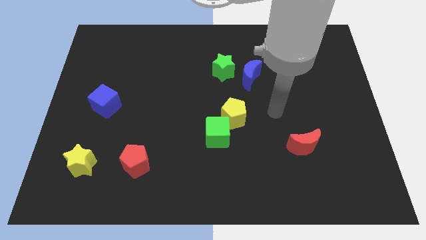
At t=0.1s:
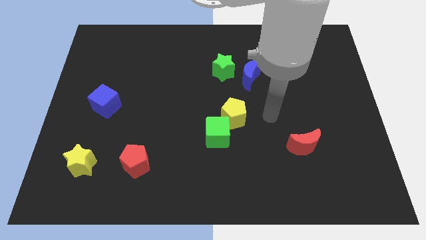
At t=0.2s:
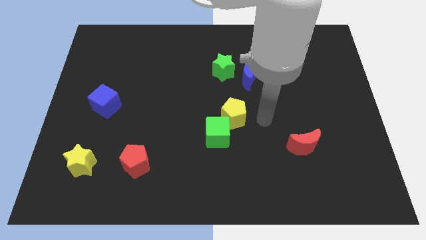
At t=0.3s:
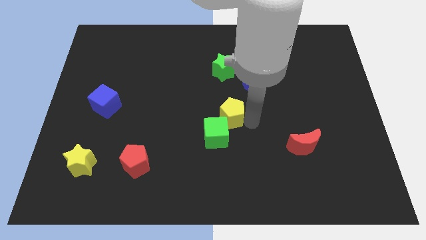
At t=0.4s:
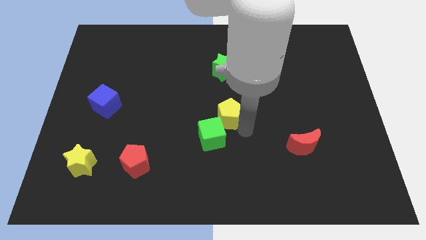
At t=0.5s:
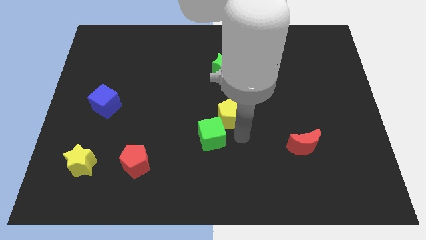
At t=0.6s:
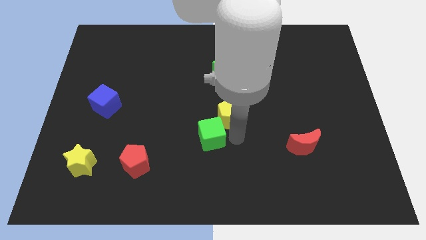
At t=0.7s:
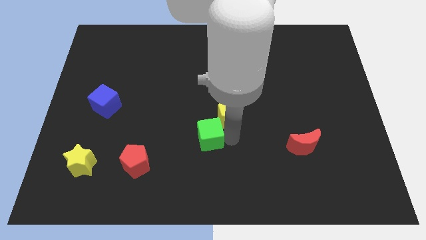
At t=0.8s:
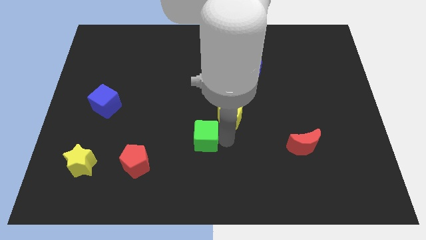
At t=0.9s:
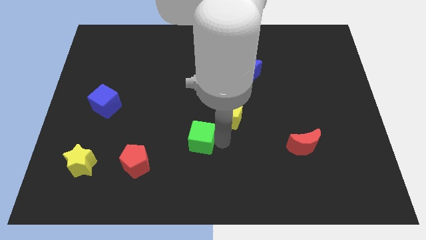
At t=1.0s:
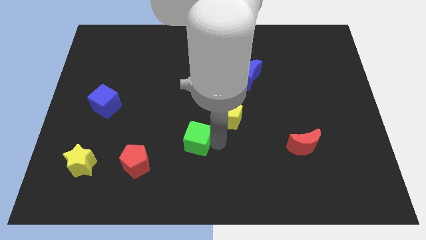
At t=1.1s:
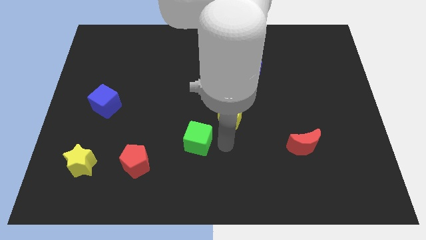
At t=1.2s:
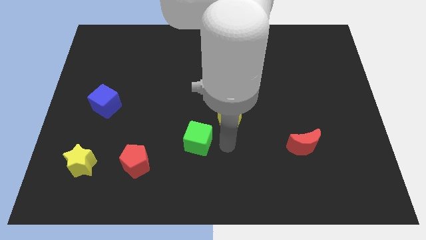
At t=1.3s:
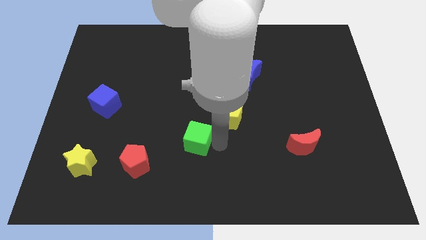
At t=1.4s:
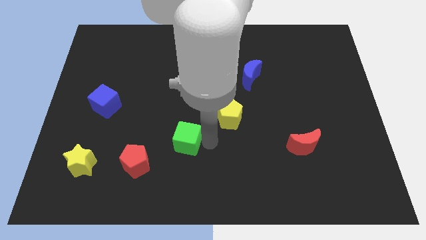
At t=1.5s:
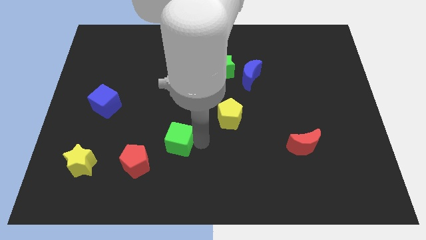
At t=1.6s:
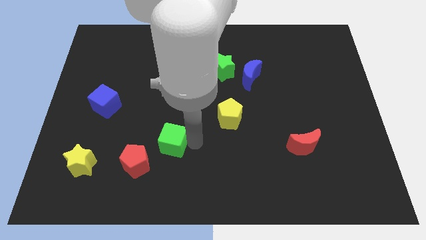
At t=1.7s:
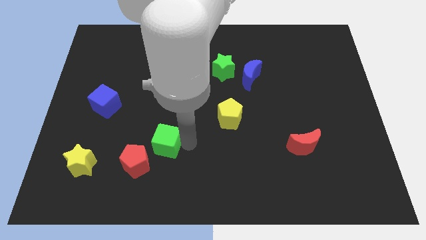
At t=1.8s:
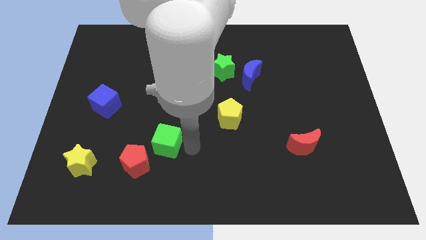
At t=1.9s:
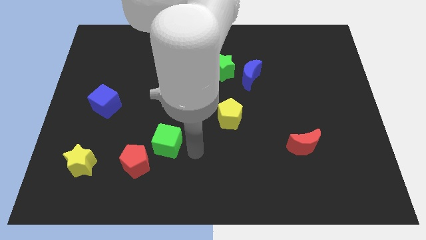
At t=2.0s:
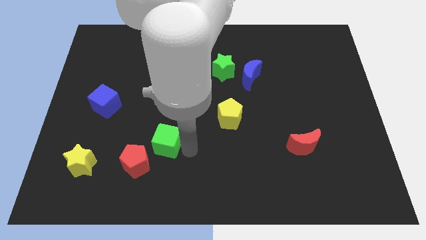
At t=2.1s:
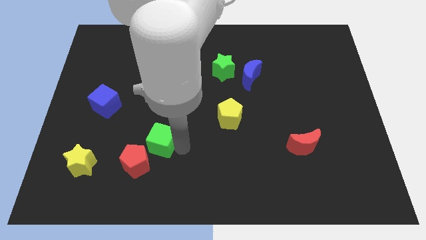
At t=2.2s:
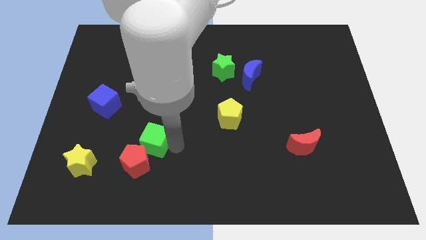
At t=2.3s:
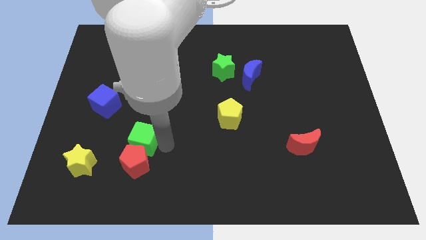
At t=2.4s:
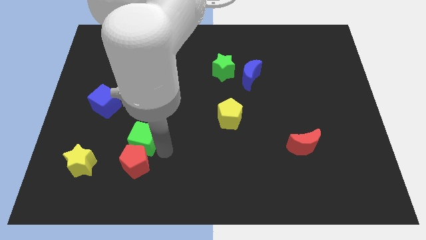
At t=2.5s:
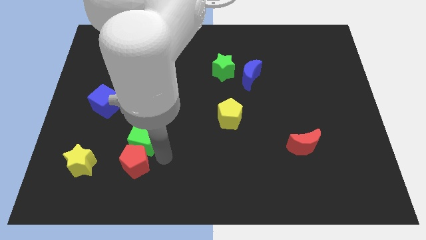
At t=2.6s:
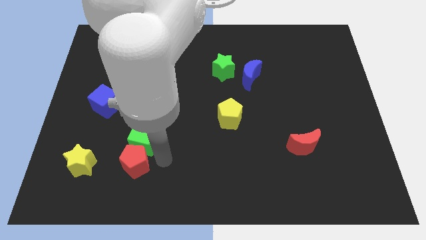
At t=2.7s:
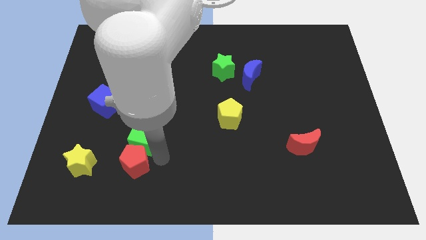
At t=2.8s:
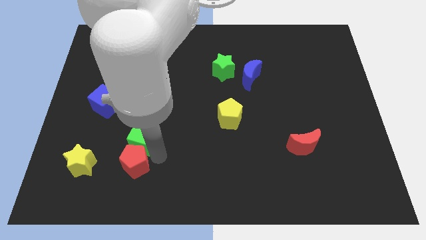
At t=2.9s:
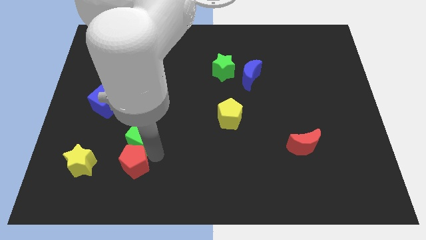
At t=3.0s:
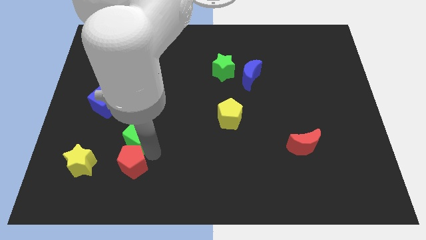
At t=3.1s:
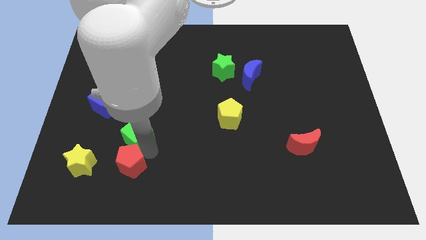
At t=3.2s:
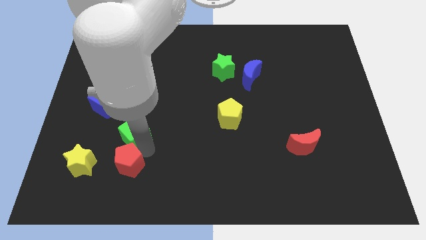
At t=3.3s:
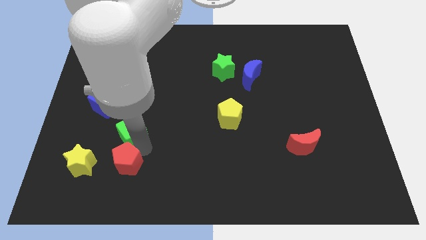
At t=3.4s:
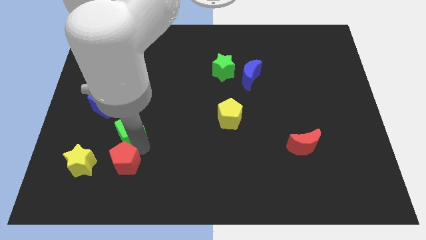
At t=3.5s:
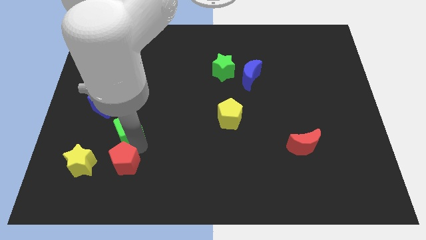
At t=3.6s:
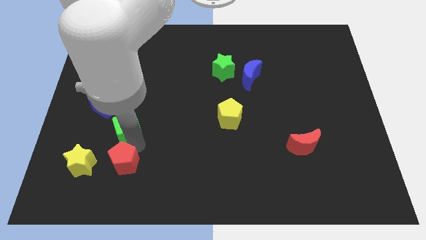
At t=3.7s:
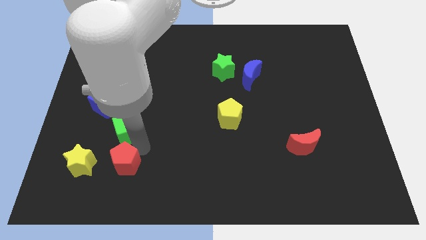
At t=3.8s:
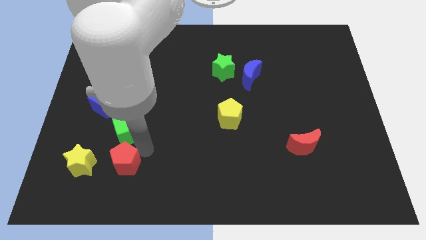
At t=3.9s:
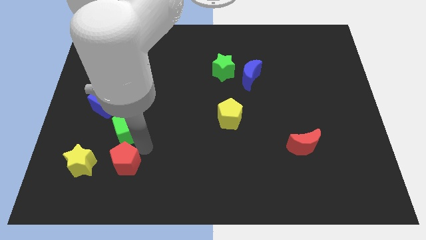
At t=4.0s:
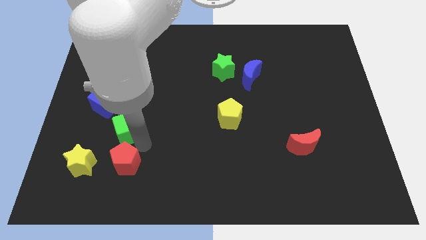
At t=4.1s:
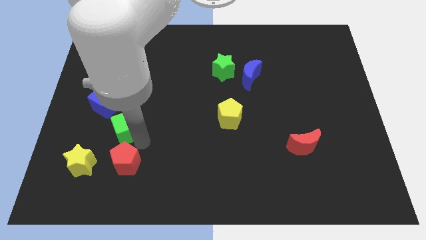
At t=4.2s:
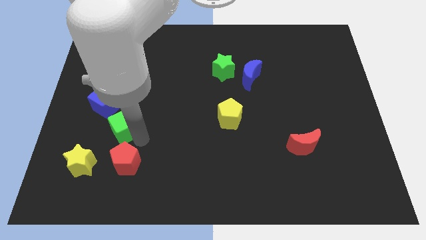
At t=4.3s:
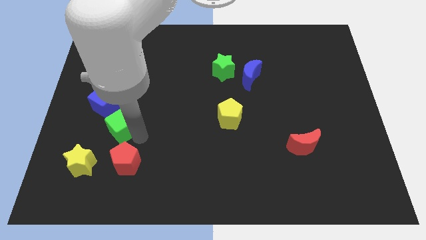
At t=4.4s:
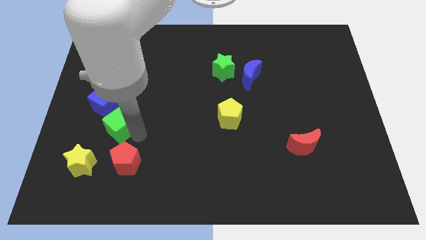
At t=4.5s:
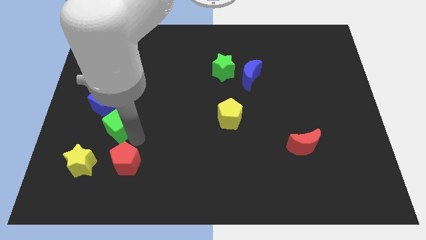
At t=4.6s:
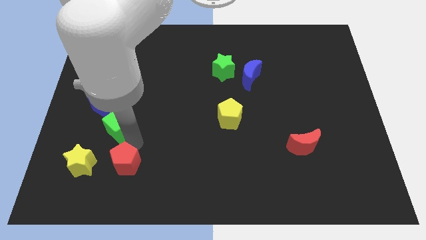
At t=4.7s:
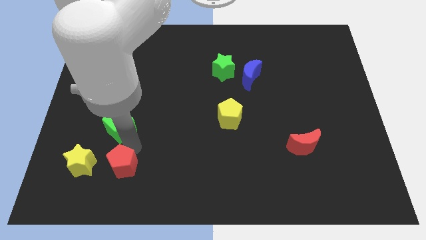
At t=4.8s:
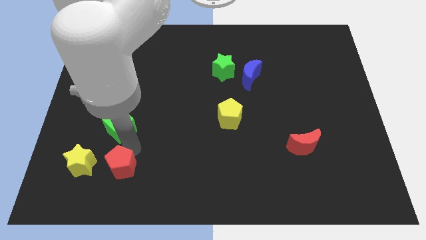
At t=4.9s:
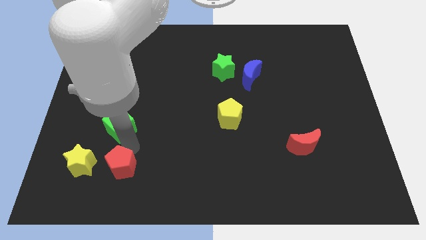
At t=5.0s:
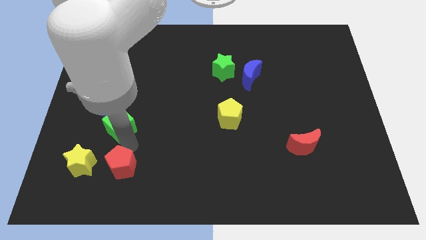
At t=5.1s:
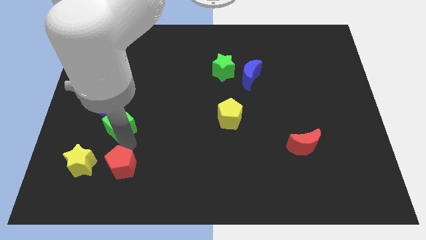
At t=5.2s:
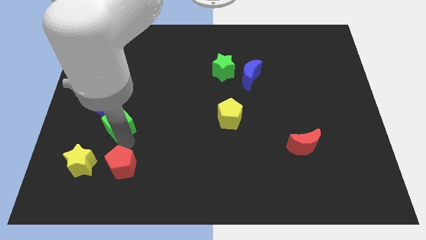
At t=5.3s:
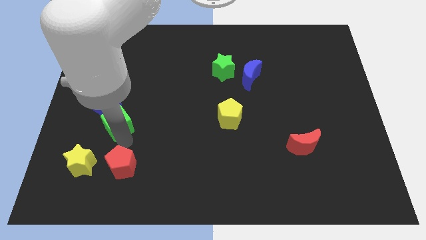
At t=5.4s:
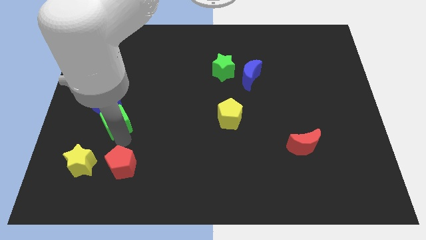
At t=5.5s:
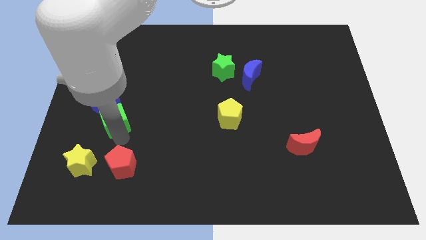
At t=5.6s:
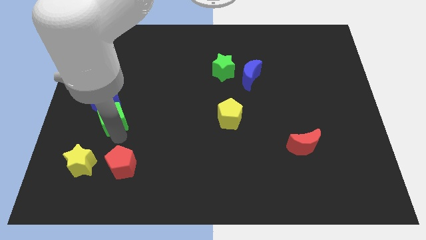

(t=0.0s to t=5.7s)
move the green cube towards the blue cube

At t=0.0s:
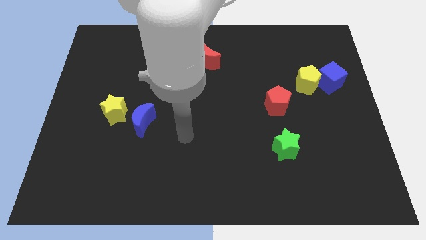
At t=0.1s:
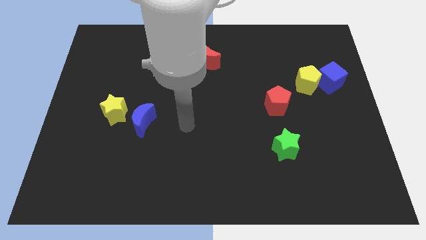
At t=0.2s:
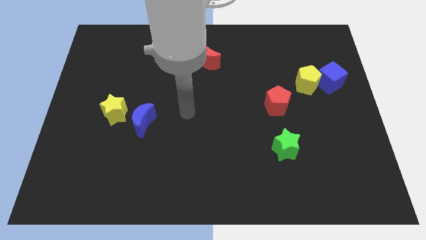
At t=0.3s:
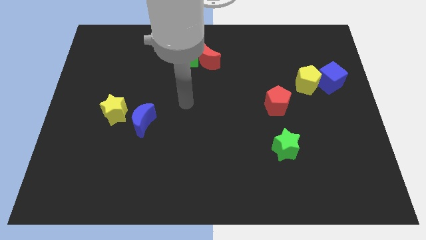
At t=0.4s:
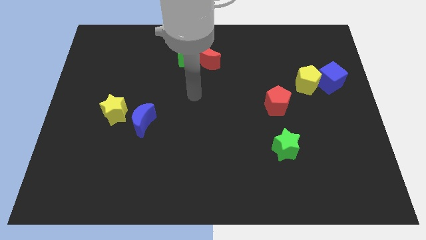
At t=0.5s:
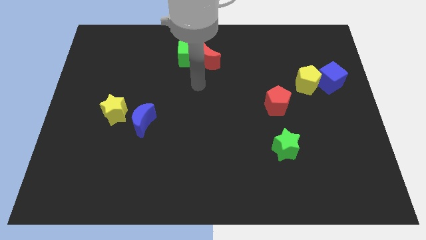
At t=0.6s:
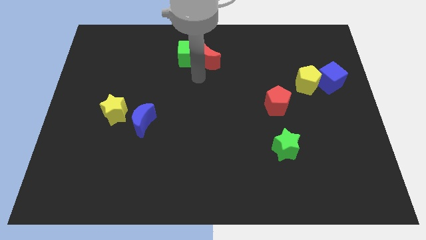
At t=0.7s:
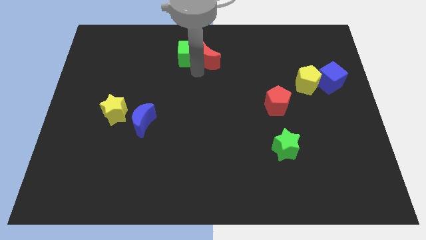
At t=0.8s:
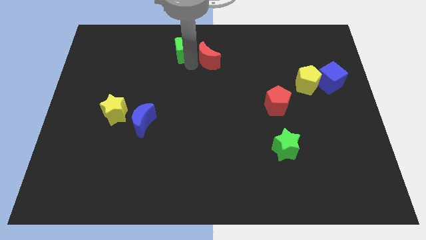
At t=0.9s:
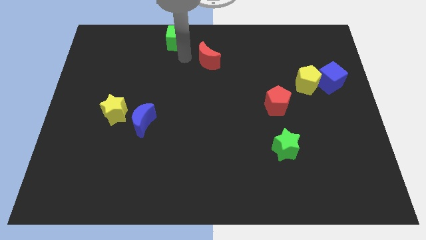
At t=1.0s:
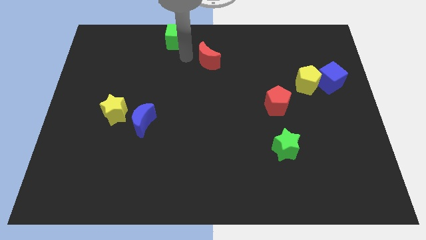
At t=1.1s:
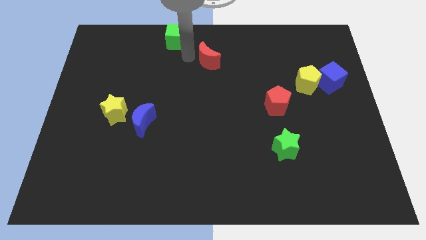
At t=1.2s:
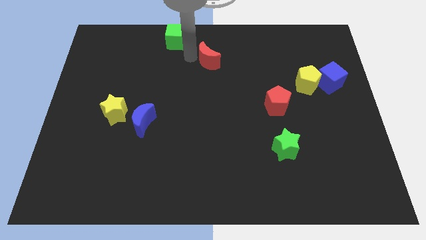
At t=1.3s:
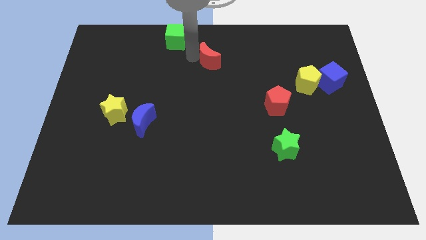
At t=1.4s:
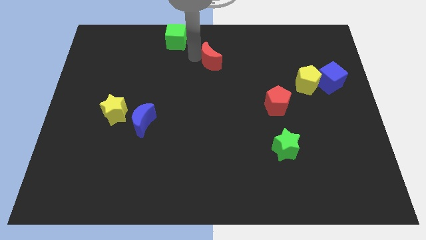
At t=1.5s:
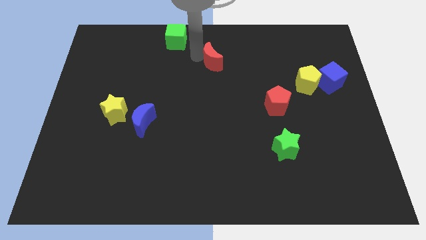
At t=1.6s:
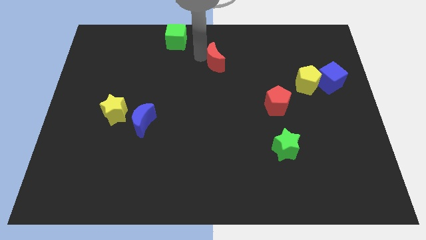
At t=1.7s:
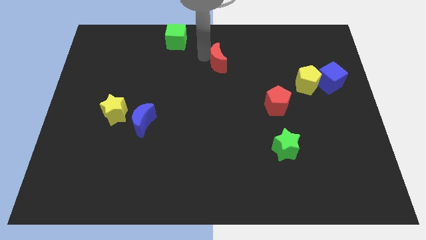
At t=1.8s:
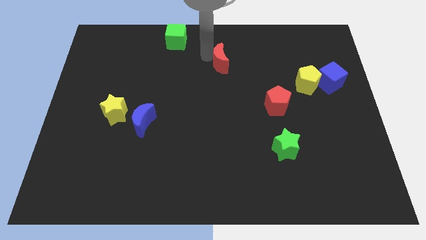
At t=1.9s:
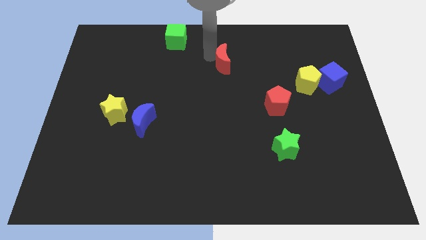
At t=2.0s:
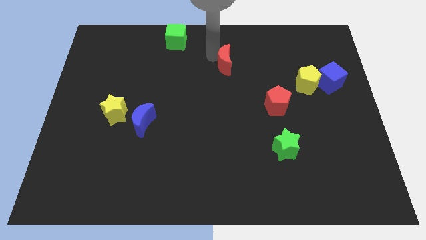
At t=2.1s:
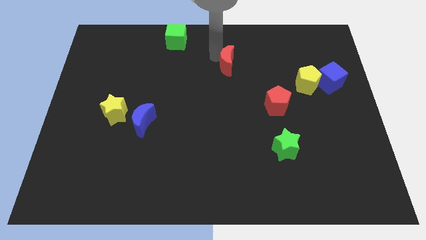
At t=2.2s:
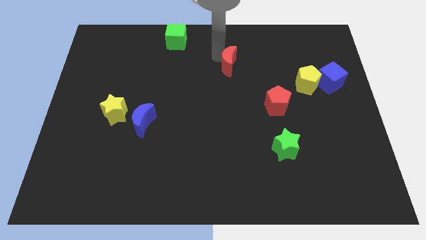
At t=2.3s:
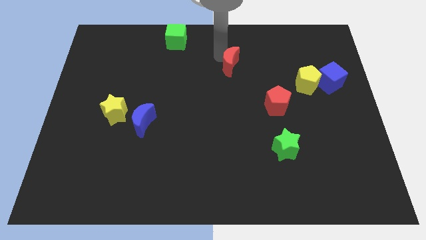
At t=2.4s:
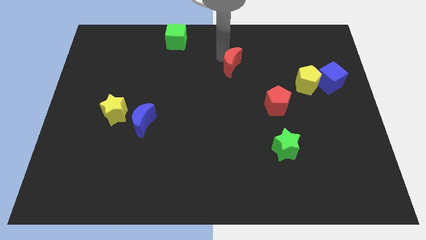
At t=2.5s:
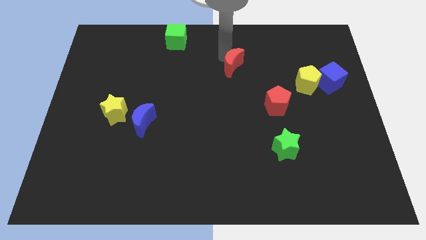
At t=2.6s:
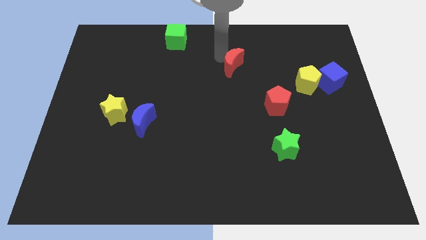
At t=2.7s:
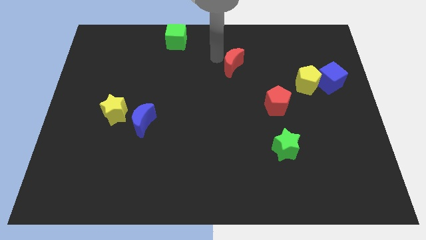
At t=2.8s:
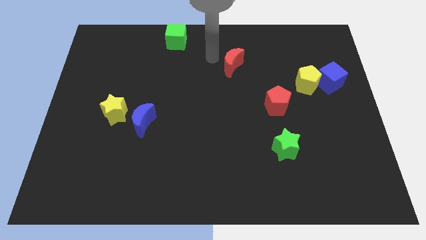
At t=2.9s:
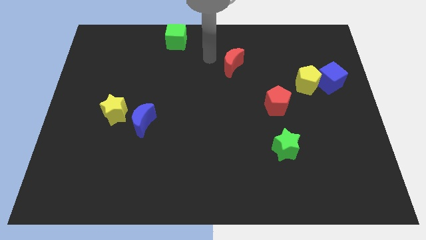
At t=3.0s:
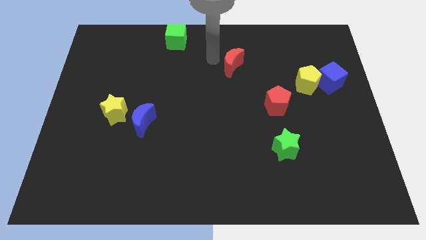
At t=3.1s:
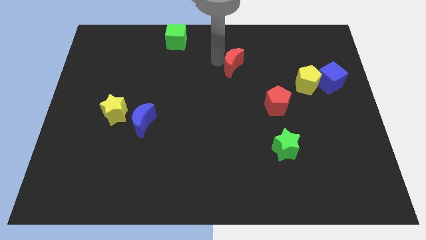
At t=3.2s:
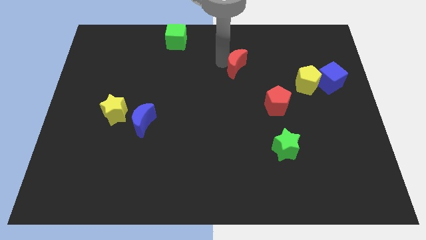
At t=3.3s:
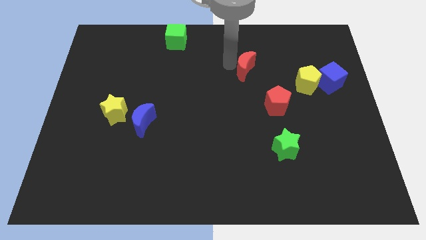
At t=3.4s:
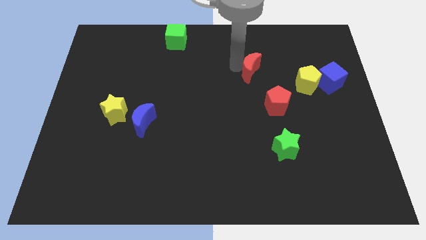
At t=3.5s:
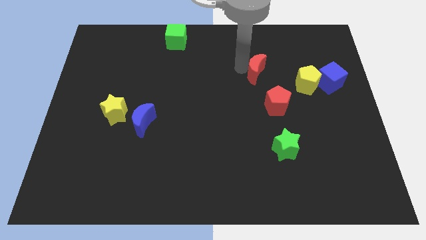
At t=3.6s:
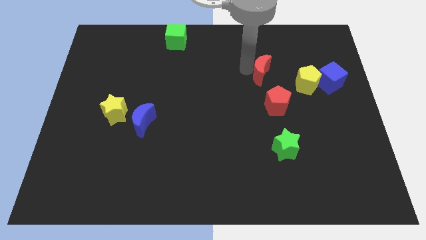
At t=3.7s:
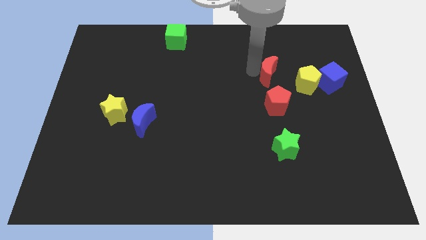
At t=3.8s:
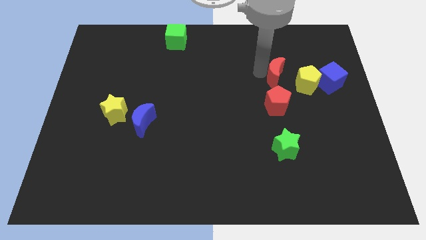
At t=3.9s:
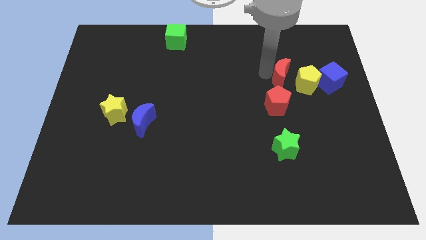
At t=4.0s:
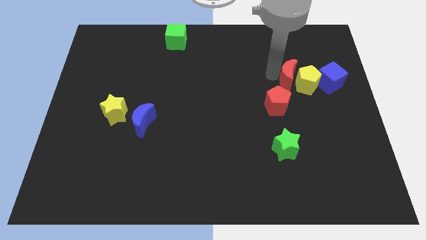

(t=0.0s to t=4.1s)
slide the red moon next to the yellow pentagon
